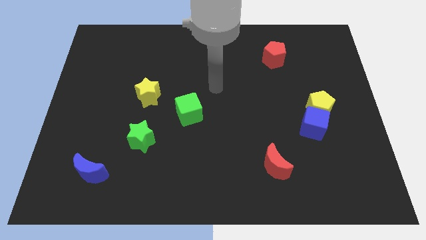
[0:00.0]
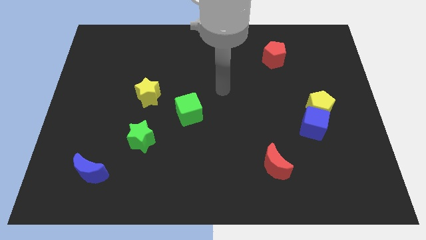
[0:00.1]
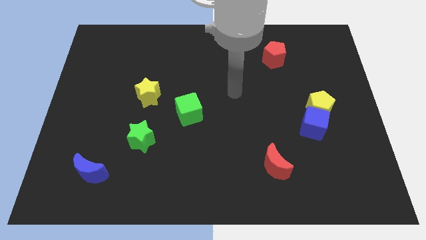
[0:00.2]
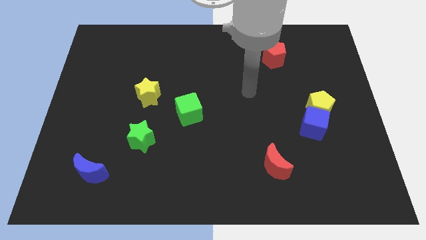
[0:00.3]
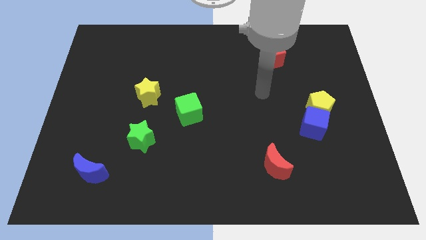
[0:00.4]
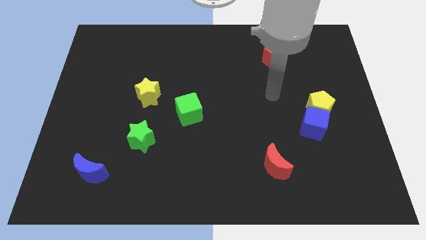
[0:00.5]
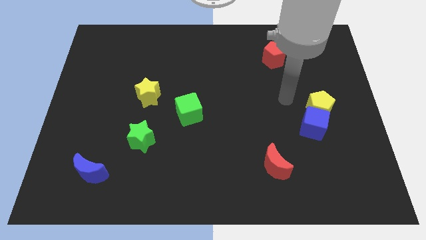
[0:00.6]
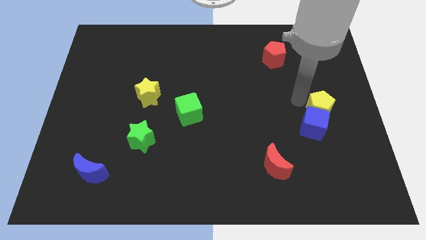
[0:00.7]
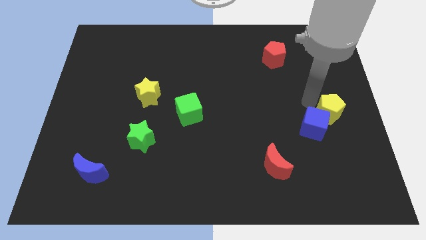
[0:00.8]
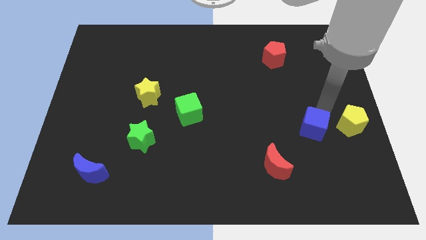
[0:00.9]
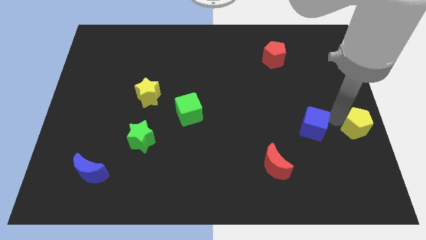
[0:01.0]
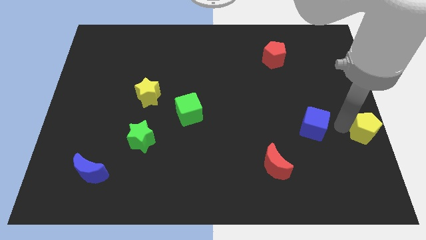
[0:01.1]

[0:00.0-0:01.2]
pull the blue cube apart from the yellow pentagon

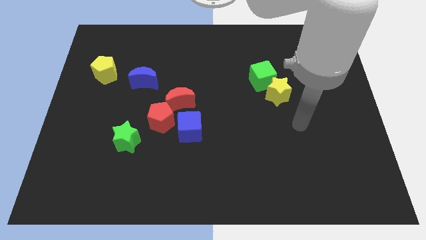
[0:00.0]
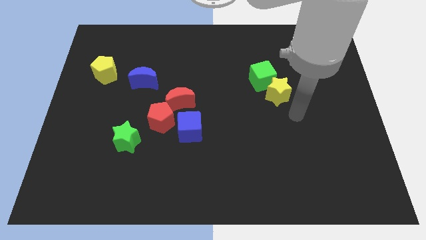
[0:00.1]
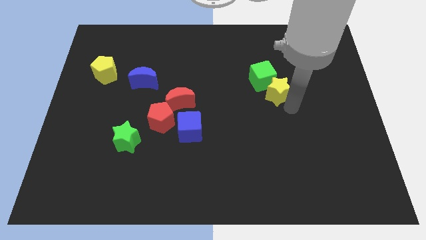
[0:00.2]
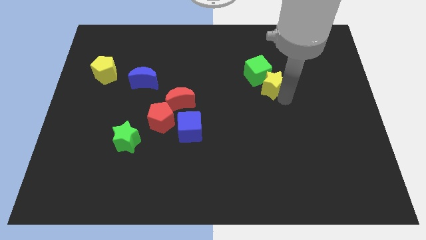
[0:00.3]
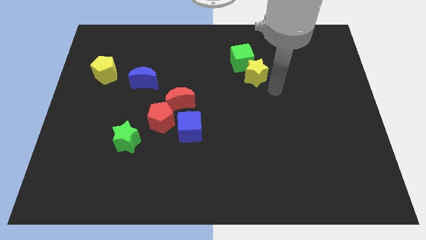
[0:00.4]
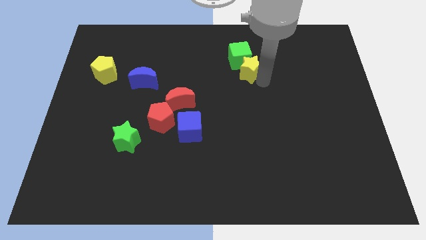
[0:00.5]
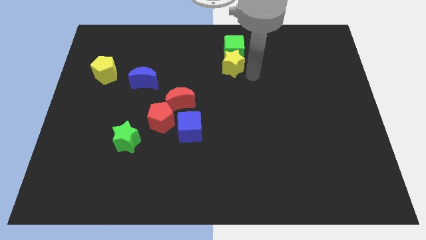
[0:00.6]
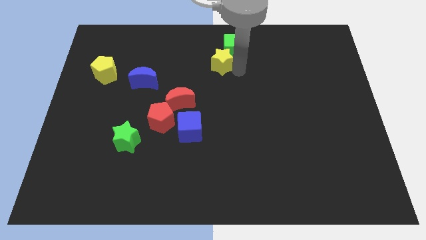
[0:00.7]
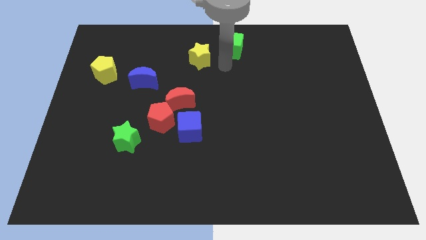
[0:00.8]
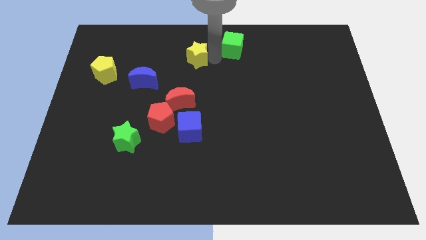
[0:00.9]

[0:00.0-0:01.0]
separate the green cube from the yellow star

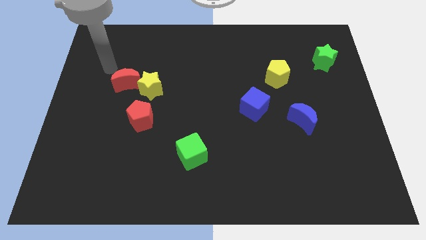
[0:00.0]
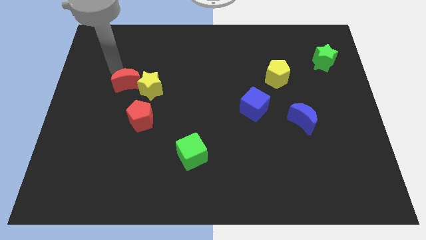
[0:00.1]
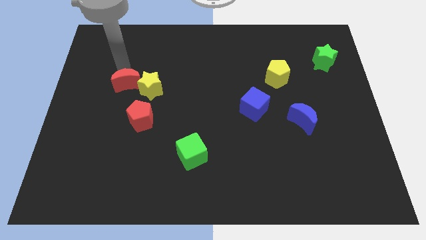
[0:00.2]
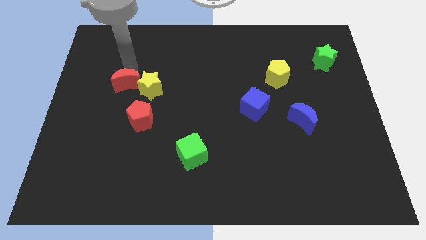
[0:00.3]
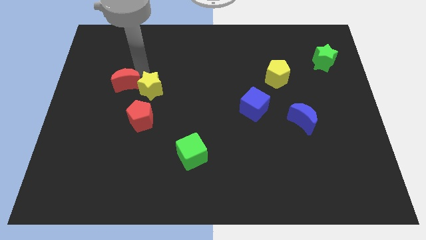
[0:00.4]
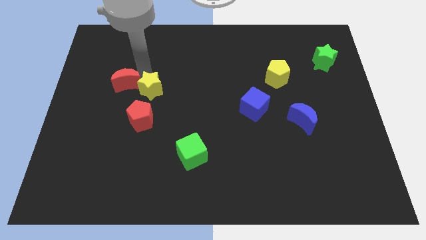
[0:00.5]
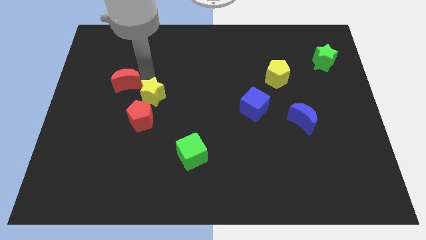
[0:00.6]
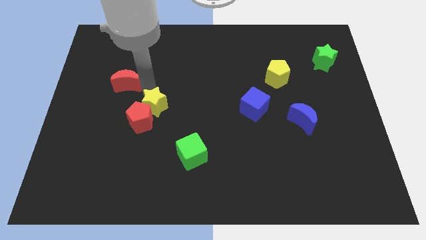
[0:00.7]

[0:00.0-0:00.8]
move the red moon away from the yellow star

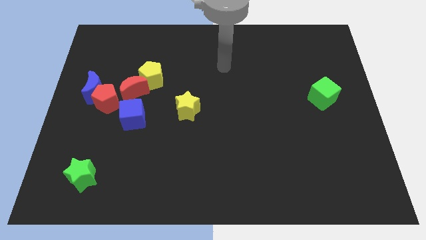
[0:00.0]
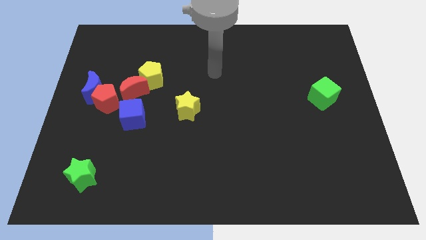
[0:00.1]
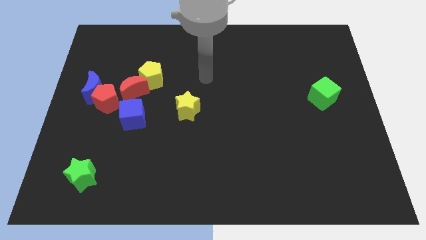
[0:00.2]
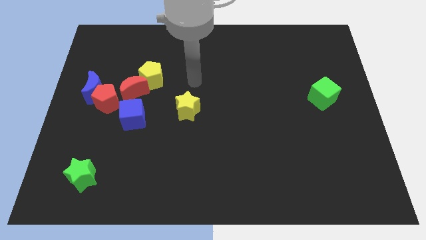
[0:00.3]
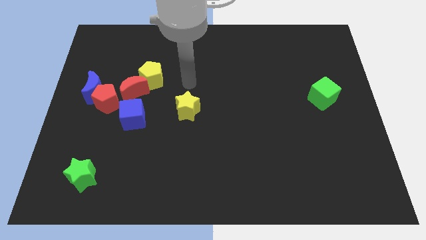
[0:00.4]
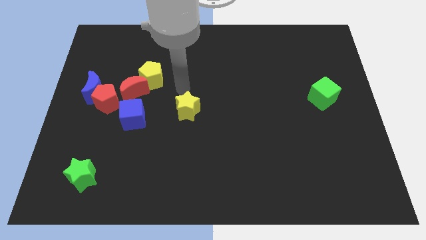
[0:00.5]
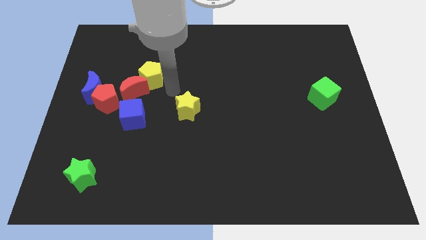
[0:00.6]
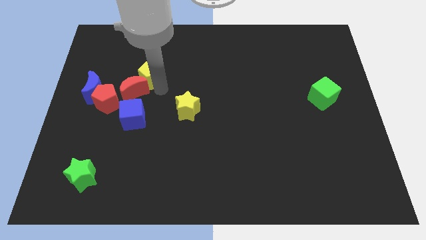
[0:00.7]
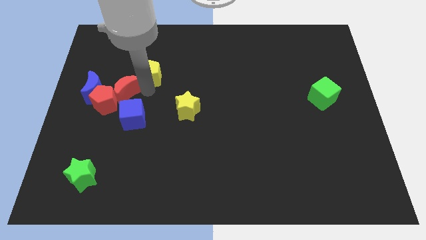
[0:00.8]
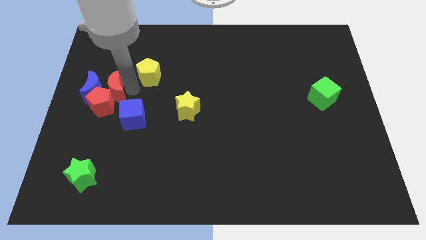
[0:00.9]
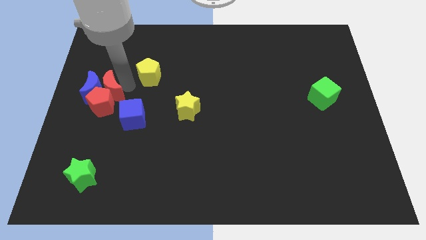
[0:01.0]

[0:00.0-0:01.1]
move the yellow pentagon away from the red moon

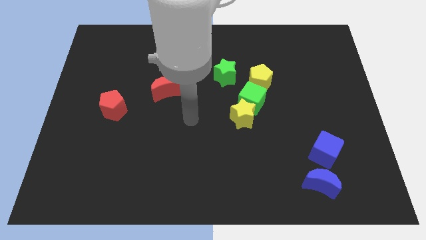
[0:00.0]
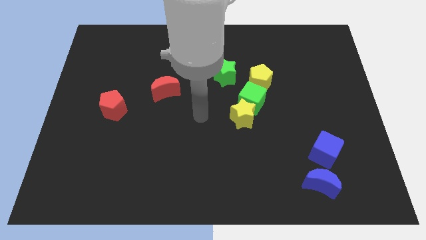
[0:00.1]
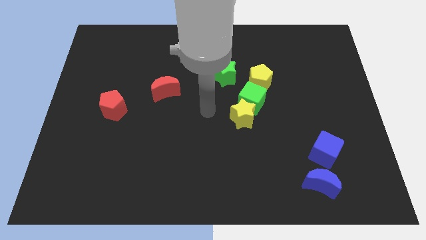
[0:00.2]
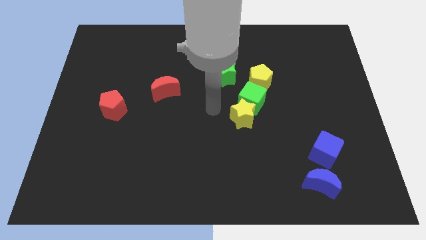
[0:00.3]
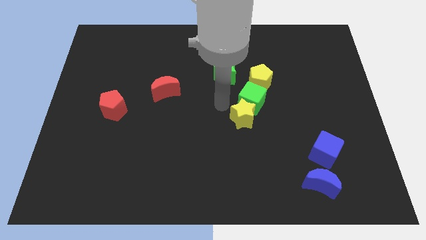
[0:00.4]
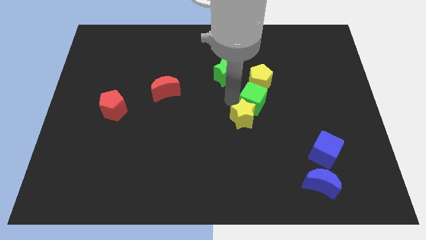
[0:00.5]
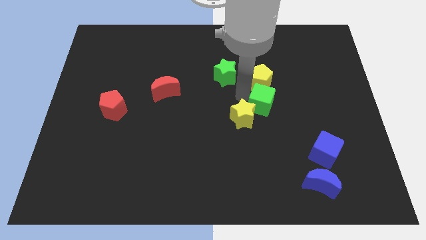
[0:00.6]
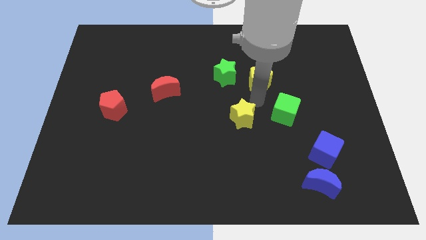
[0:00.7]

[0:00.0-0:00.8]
move the yellow star away from the green cube

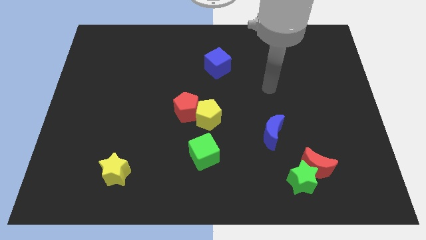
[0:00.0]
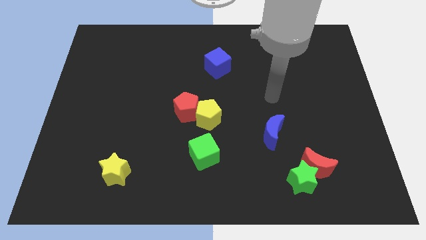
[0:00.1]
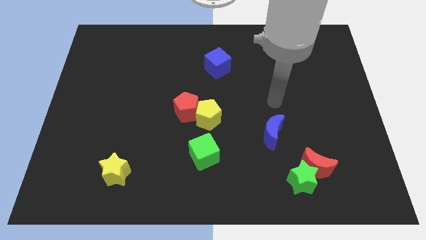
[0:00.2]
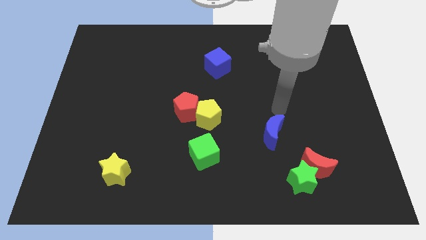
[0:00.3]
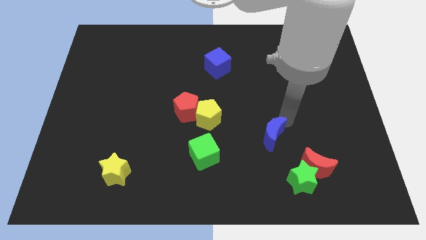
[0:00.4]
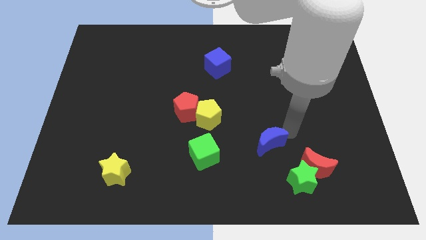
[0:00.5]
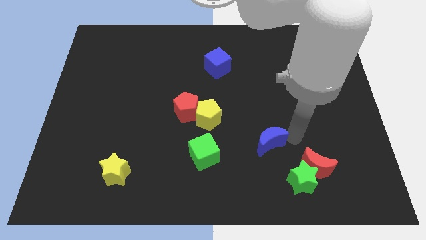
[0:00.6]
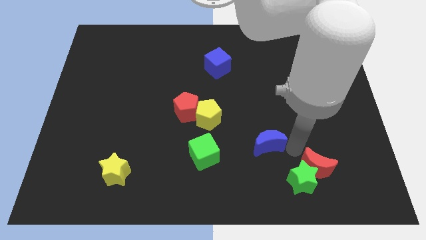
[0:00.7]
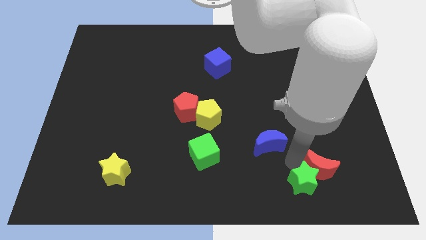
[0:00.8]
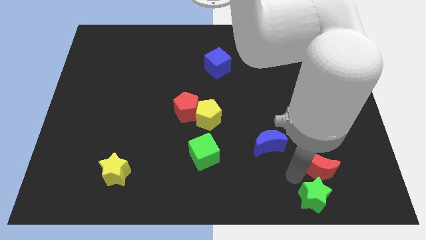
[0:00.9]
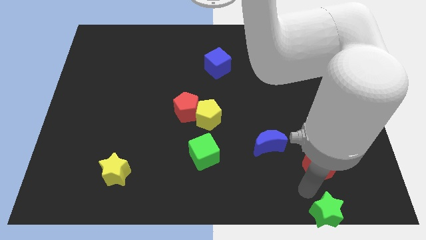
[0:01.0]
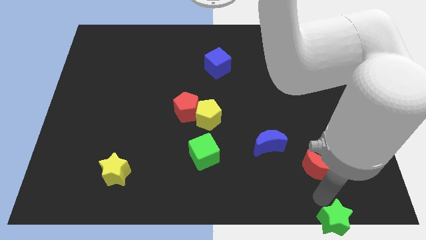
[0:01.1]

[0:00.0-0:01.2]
separate the red moon from the green star

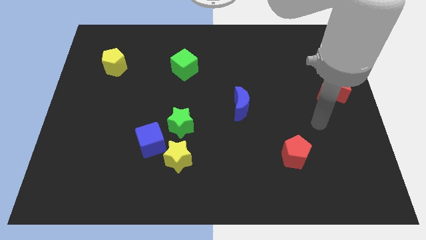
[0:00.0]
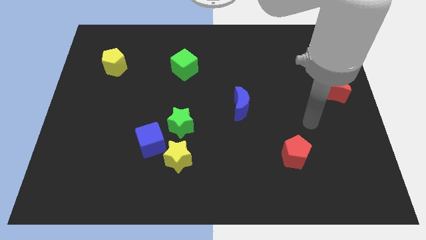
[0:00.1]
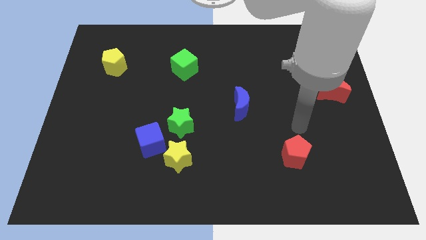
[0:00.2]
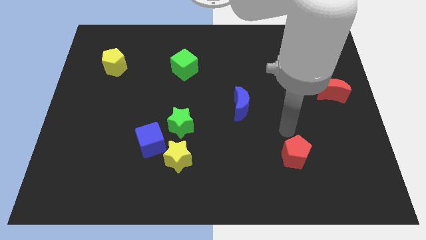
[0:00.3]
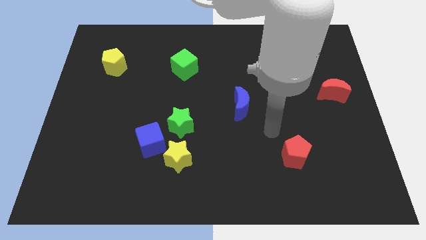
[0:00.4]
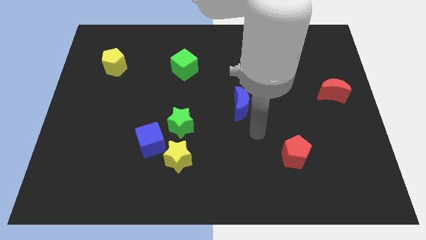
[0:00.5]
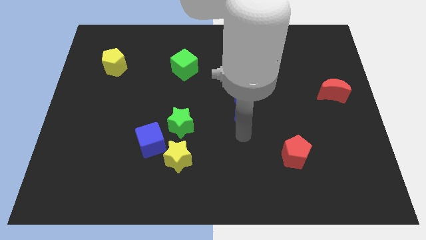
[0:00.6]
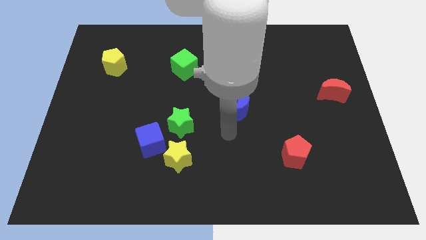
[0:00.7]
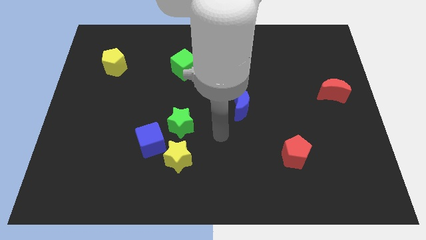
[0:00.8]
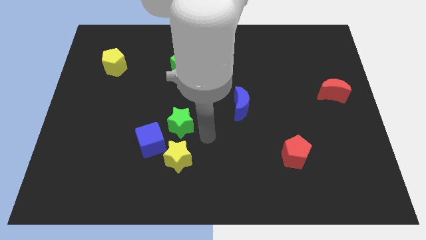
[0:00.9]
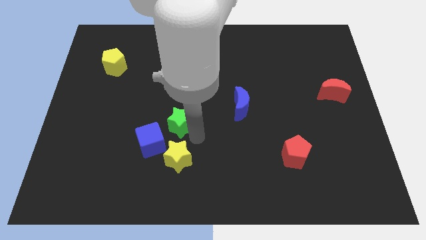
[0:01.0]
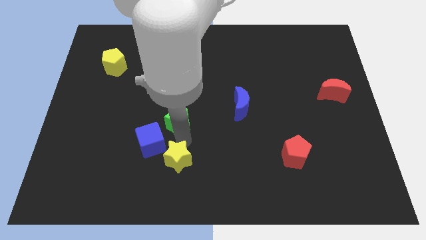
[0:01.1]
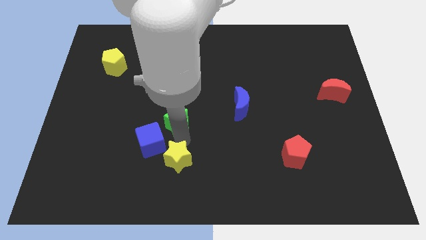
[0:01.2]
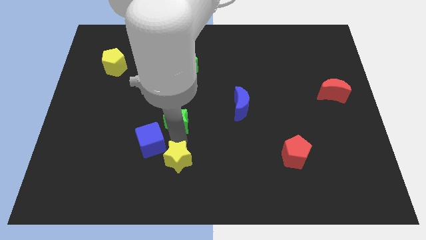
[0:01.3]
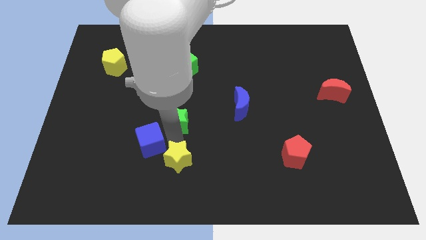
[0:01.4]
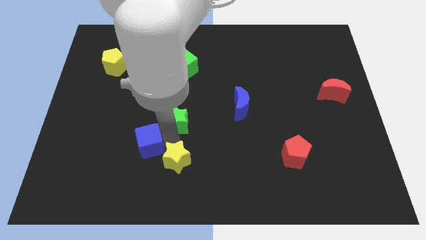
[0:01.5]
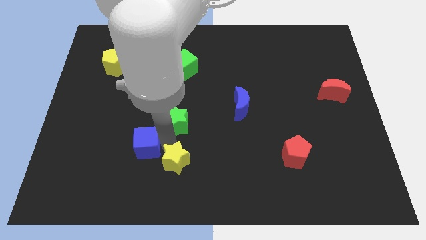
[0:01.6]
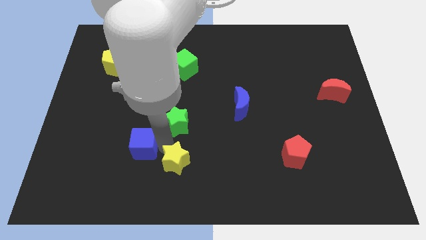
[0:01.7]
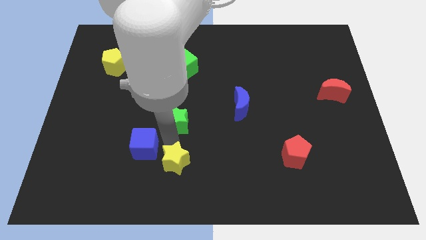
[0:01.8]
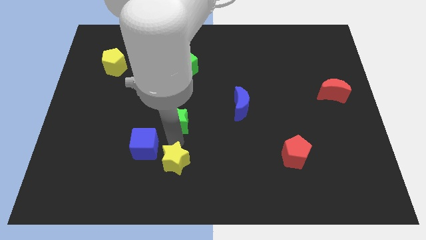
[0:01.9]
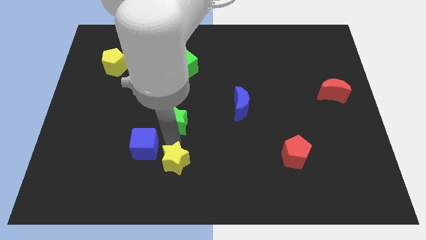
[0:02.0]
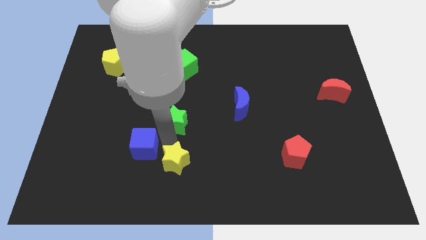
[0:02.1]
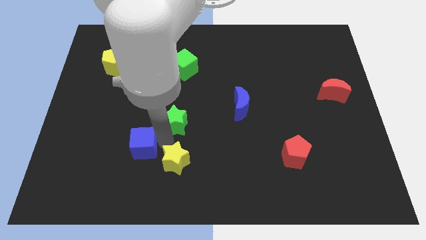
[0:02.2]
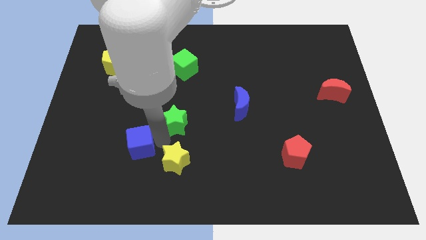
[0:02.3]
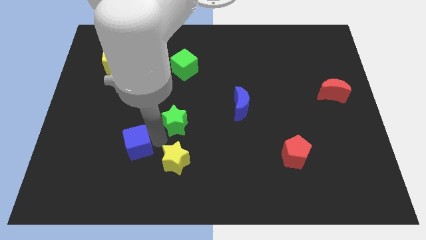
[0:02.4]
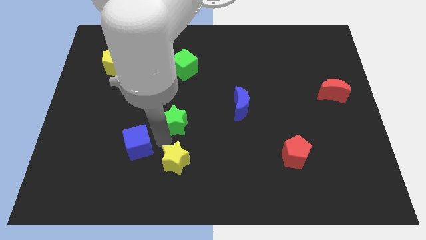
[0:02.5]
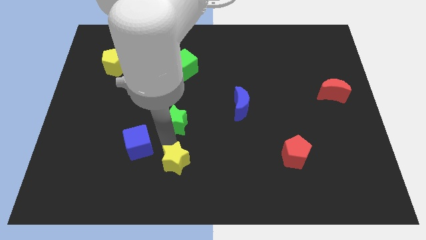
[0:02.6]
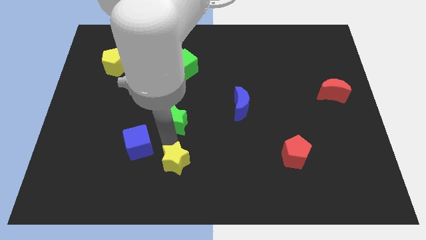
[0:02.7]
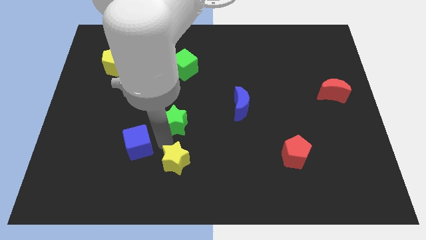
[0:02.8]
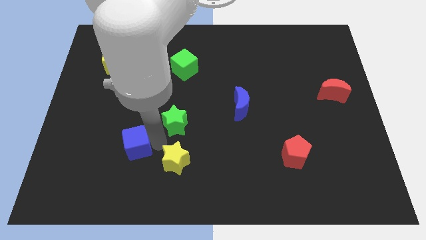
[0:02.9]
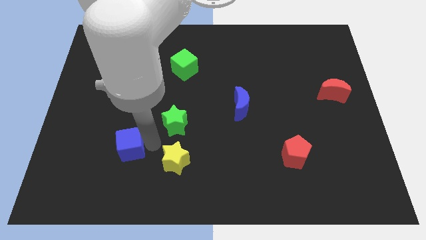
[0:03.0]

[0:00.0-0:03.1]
pull the blue cube apart from the yellow star and green star

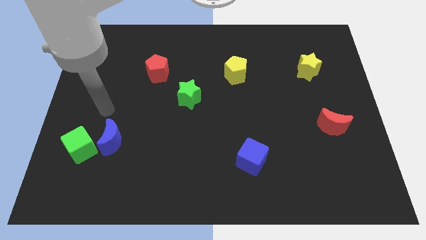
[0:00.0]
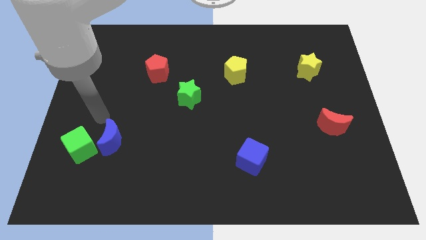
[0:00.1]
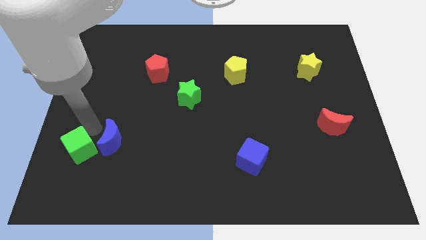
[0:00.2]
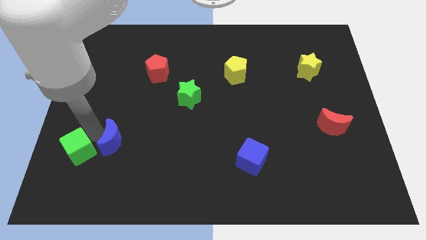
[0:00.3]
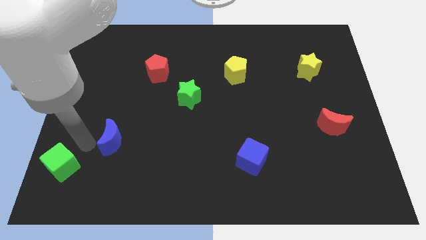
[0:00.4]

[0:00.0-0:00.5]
separate the blue moon from the green cube
